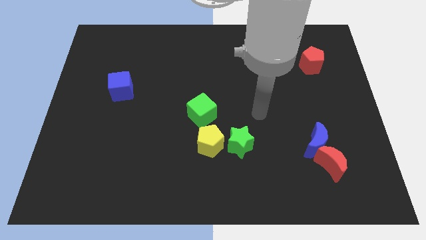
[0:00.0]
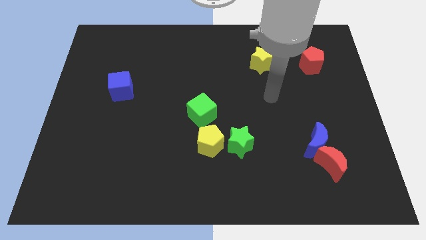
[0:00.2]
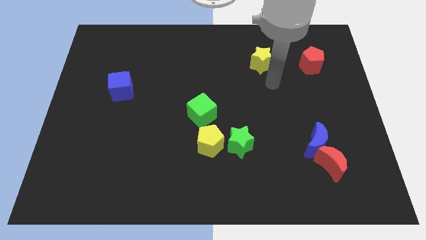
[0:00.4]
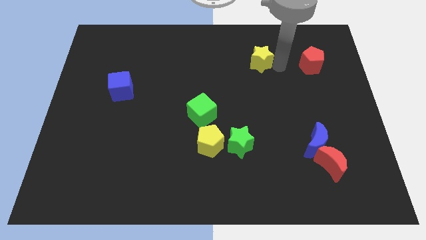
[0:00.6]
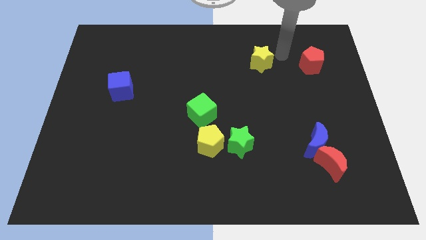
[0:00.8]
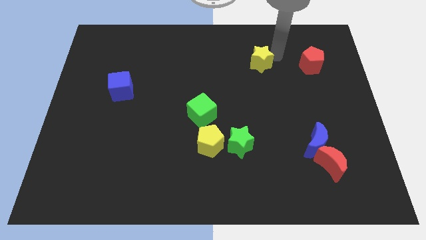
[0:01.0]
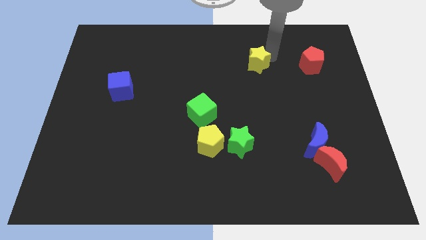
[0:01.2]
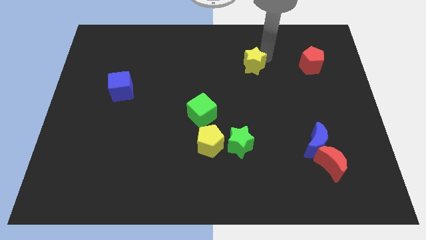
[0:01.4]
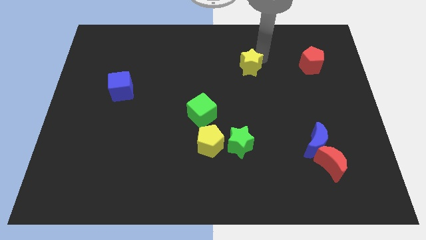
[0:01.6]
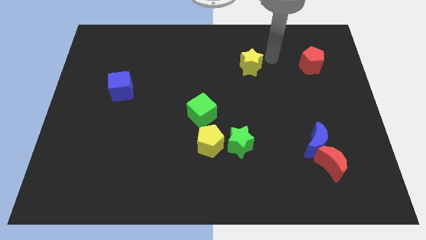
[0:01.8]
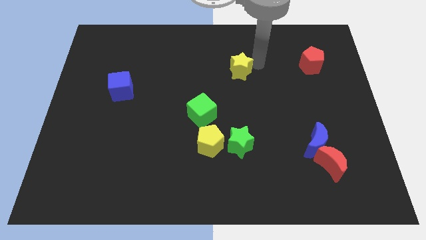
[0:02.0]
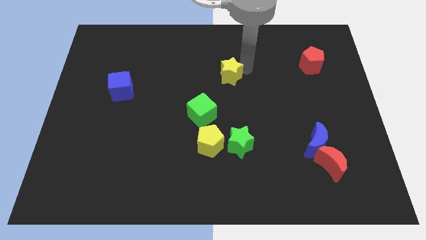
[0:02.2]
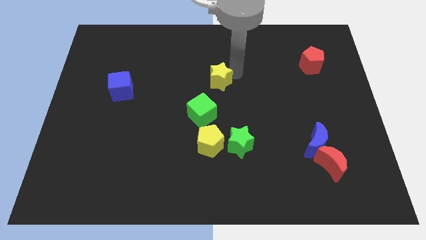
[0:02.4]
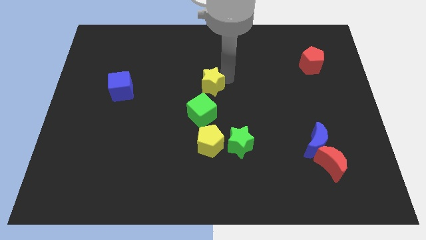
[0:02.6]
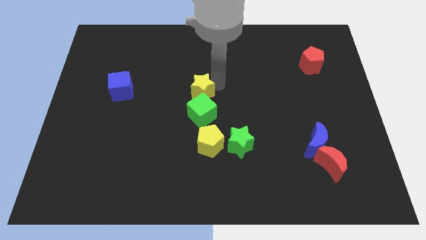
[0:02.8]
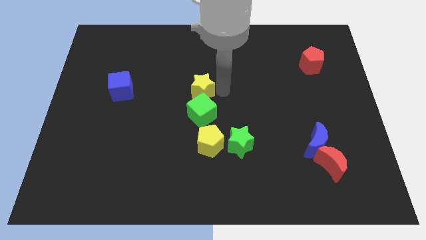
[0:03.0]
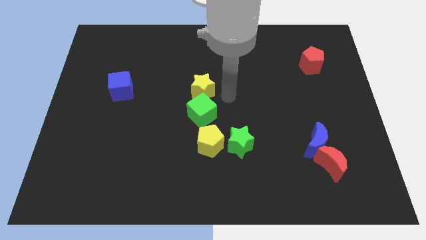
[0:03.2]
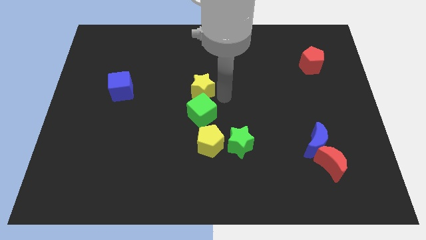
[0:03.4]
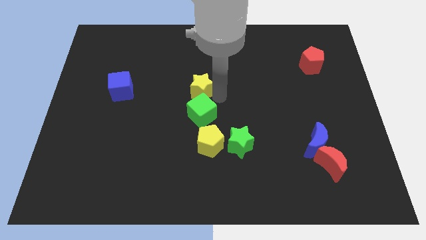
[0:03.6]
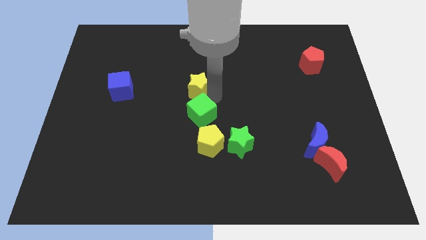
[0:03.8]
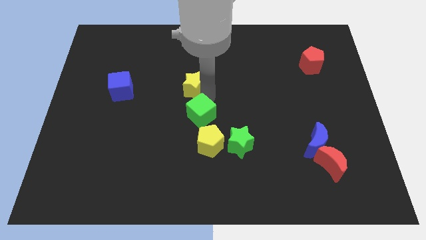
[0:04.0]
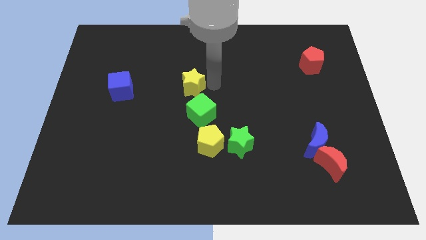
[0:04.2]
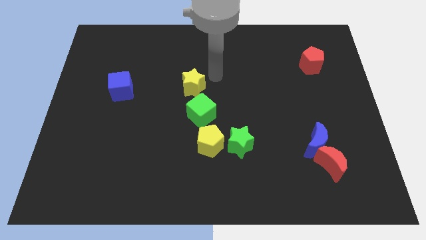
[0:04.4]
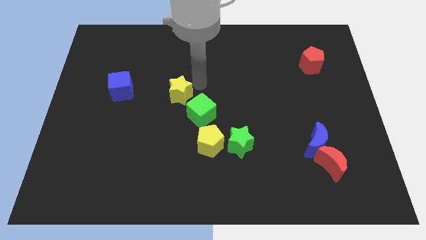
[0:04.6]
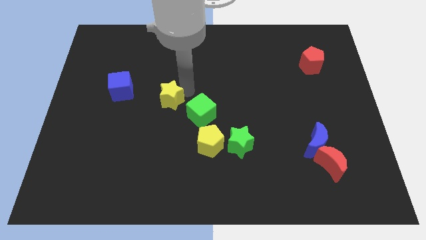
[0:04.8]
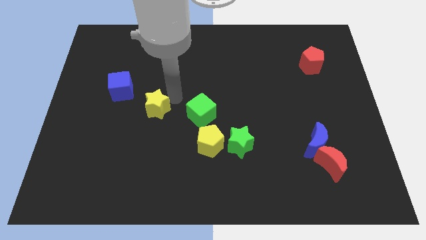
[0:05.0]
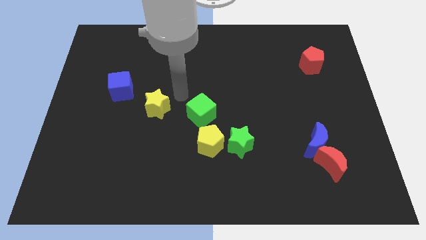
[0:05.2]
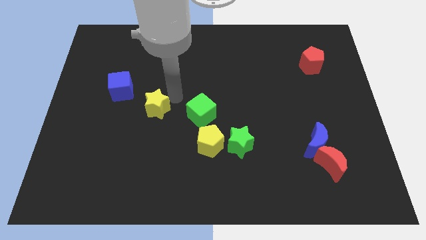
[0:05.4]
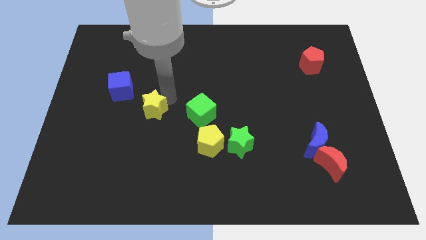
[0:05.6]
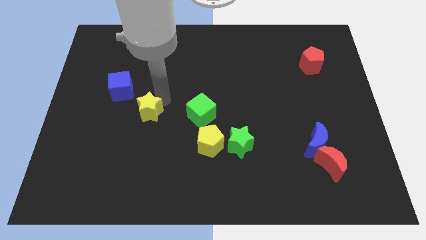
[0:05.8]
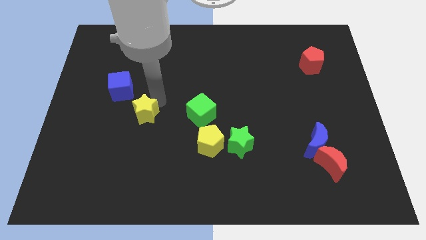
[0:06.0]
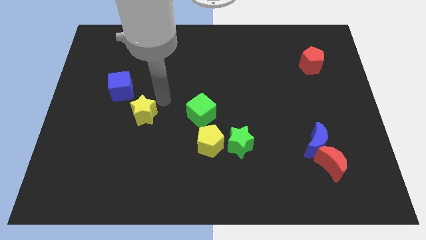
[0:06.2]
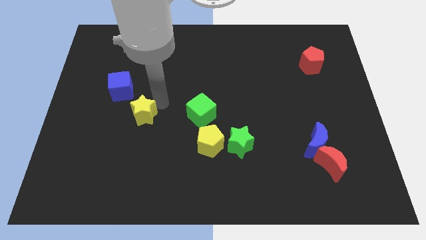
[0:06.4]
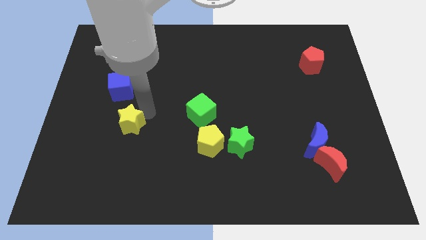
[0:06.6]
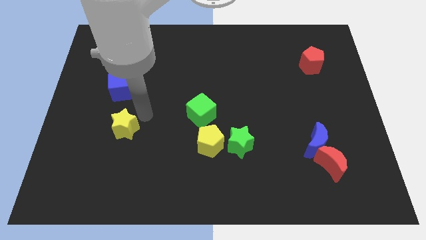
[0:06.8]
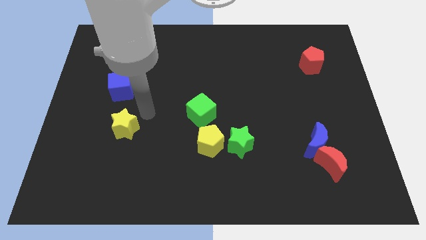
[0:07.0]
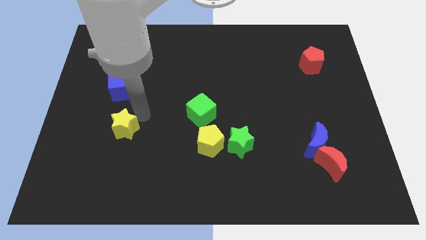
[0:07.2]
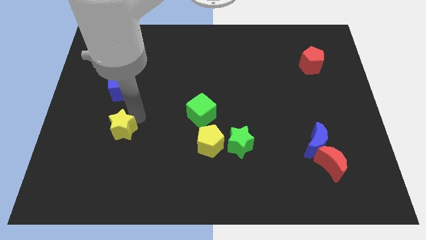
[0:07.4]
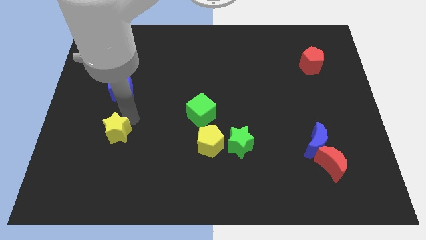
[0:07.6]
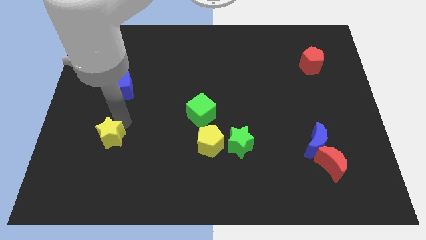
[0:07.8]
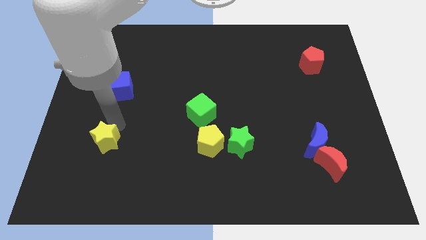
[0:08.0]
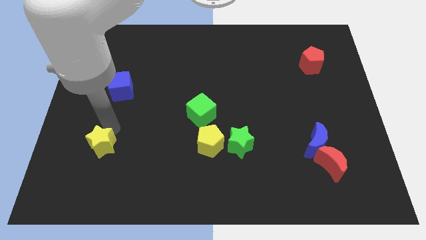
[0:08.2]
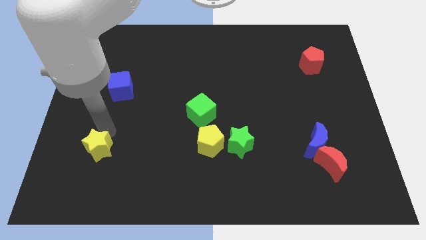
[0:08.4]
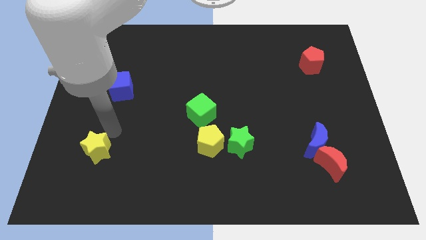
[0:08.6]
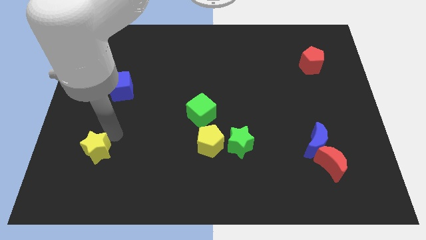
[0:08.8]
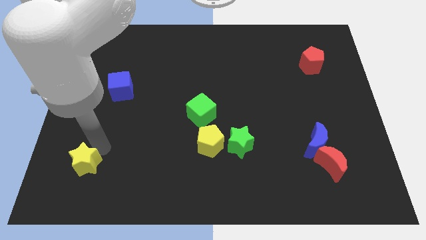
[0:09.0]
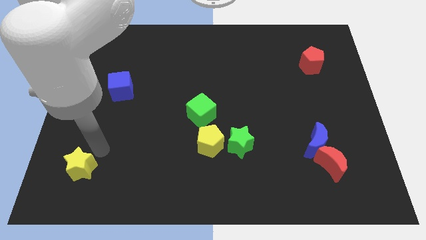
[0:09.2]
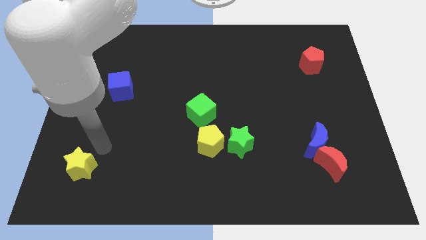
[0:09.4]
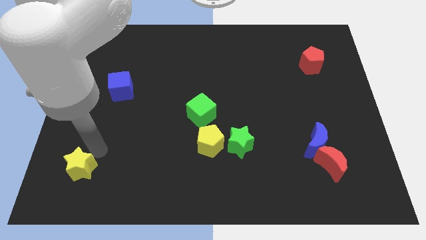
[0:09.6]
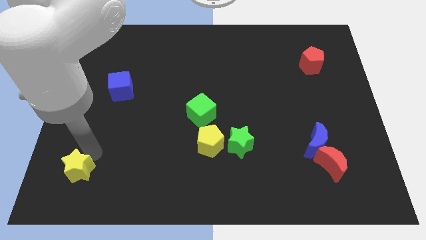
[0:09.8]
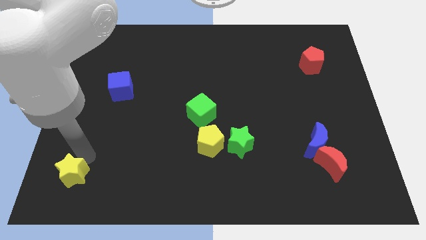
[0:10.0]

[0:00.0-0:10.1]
put the yellow star to the lower left corner

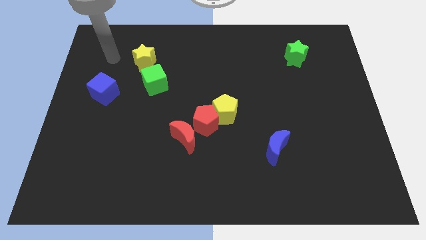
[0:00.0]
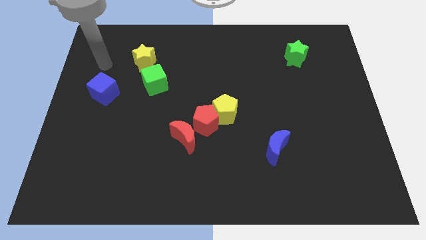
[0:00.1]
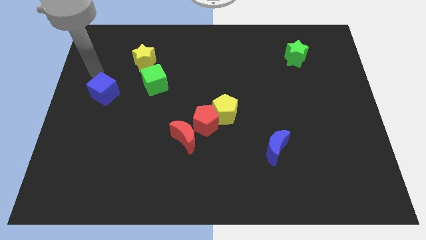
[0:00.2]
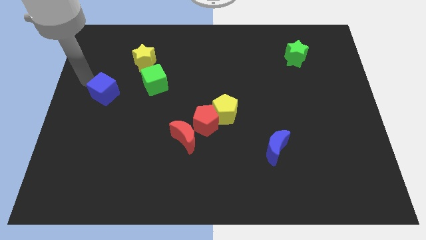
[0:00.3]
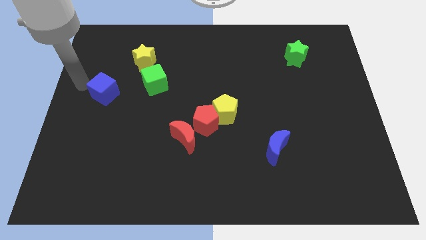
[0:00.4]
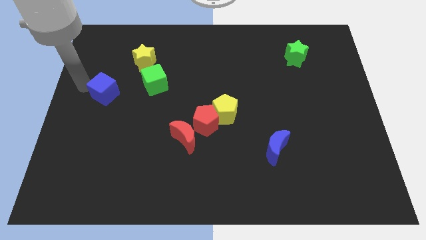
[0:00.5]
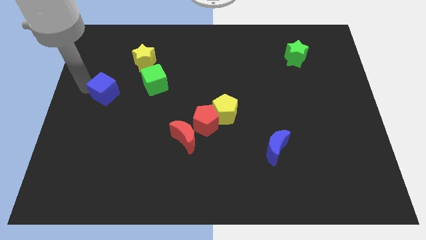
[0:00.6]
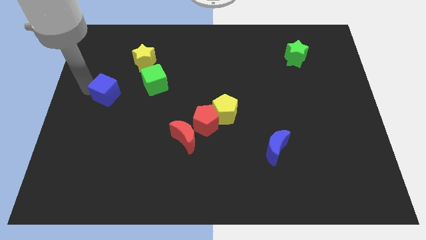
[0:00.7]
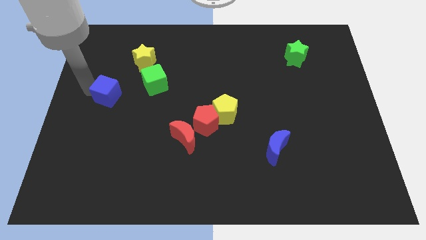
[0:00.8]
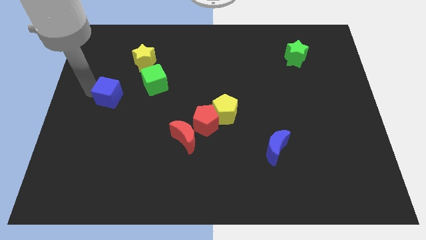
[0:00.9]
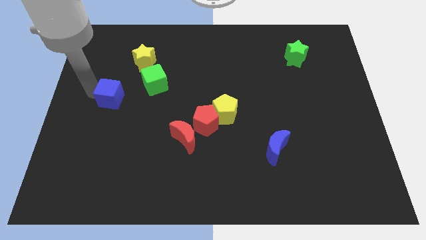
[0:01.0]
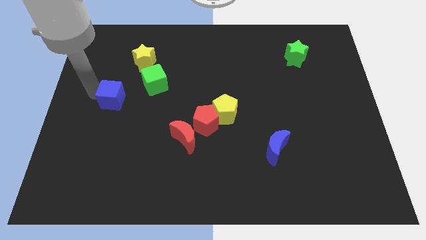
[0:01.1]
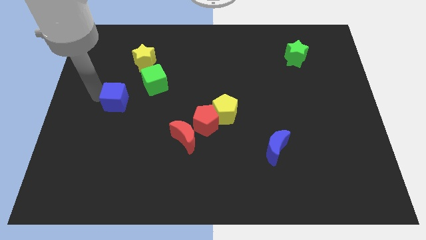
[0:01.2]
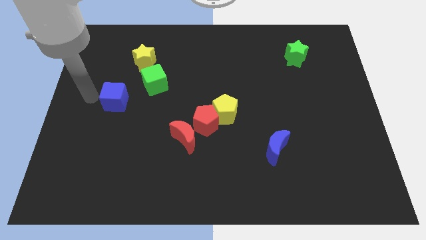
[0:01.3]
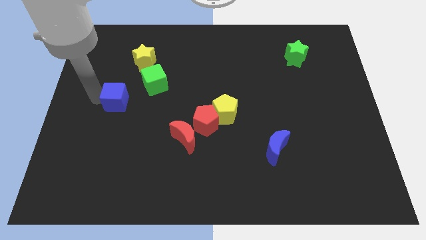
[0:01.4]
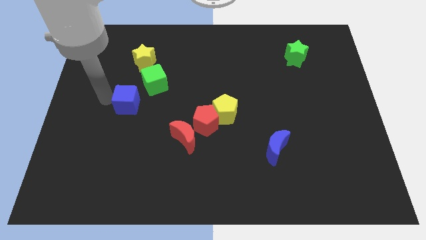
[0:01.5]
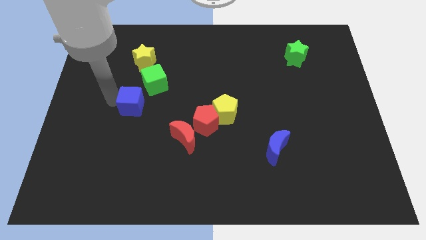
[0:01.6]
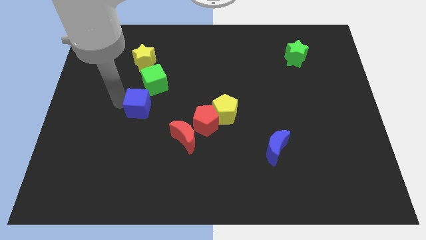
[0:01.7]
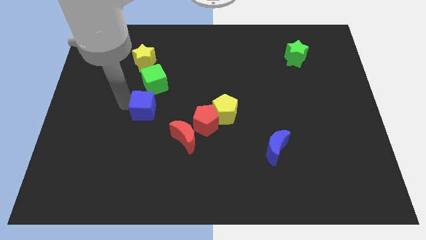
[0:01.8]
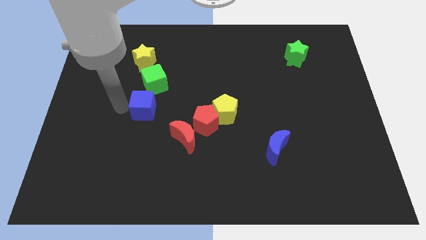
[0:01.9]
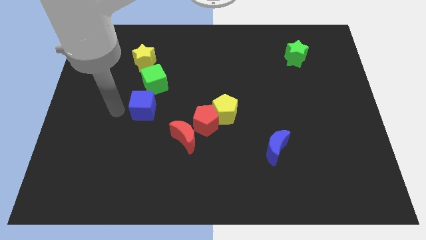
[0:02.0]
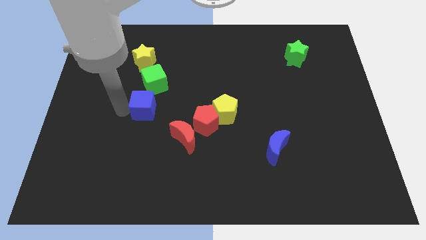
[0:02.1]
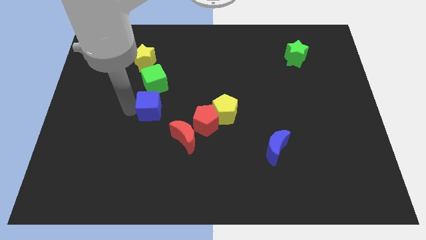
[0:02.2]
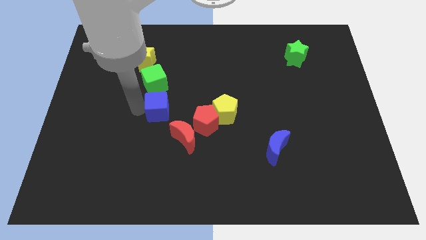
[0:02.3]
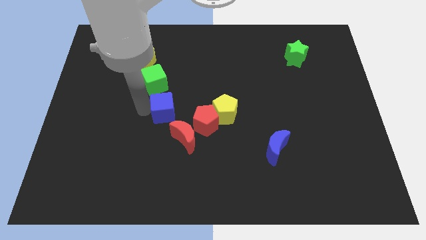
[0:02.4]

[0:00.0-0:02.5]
push the blue cube to the center of the board
